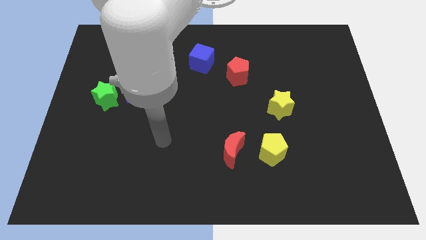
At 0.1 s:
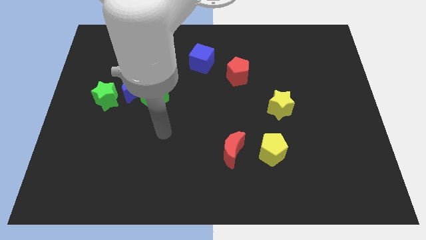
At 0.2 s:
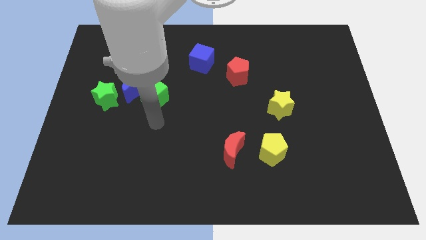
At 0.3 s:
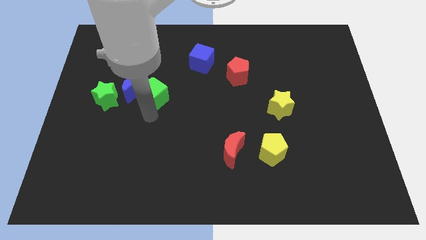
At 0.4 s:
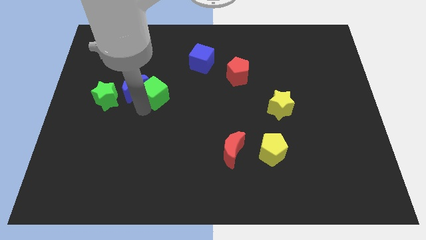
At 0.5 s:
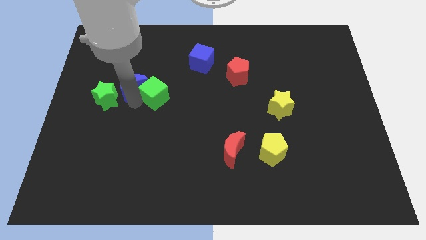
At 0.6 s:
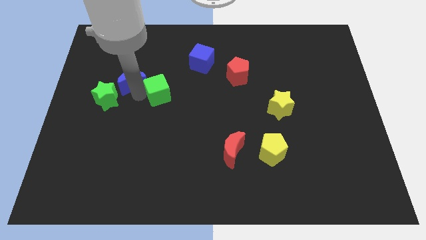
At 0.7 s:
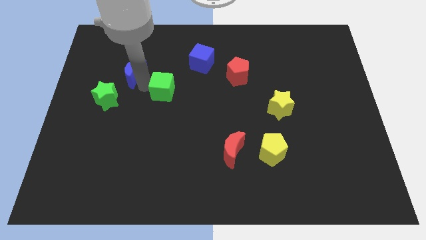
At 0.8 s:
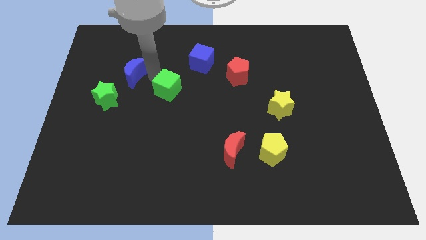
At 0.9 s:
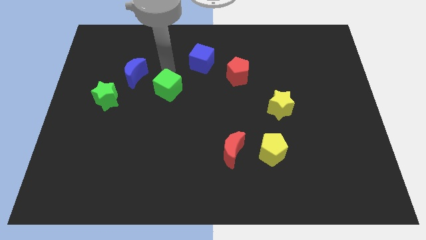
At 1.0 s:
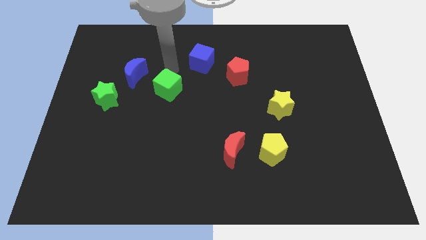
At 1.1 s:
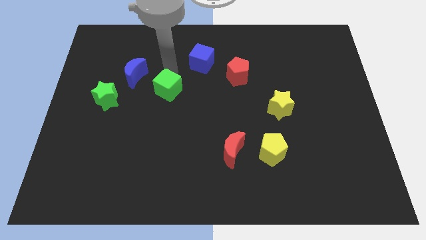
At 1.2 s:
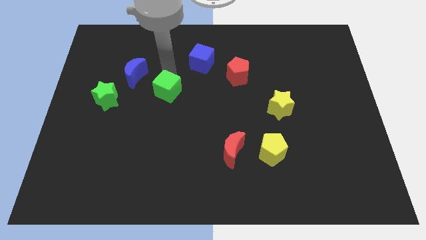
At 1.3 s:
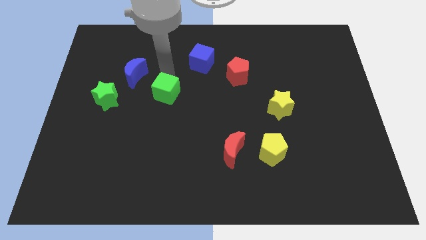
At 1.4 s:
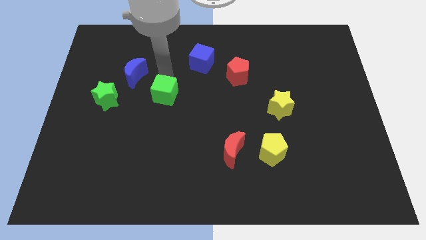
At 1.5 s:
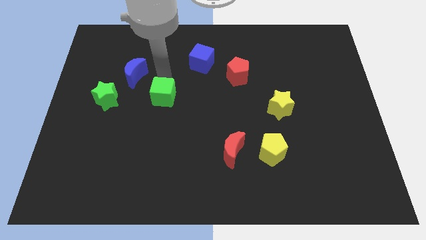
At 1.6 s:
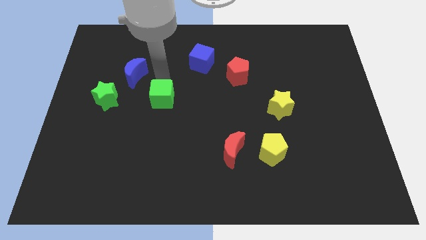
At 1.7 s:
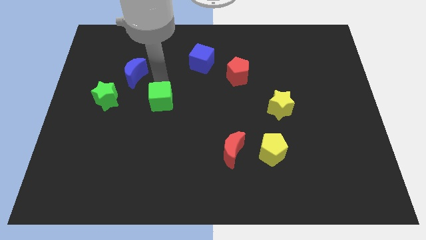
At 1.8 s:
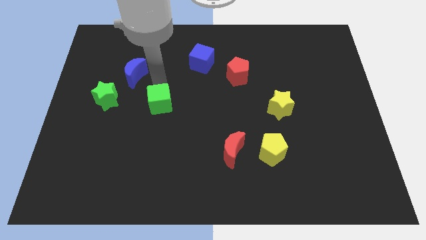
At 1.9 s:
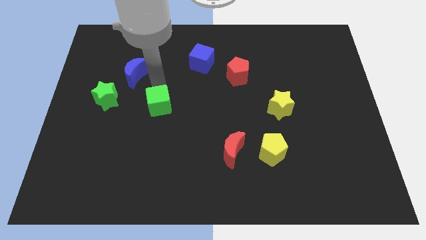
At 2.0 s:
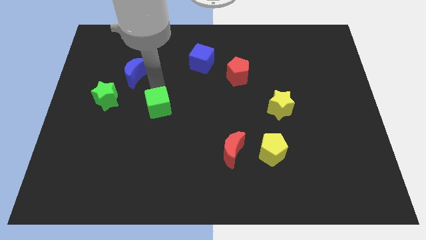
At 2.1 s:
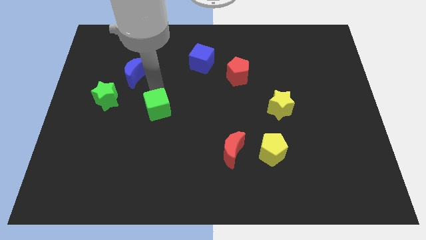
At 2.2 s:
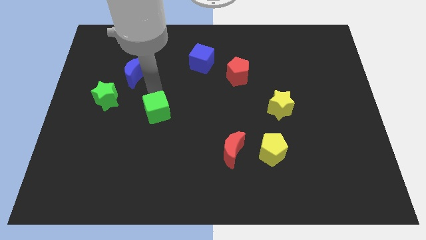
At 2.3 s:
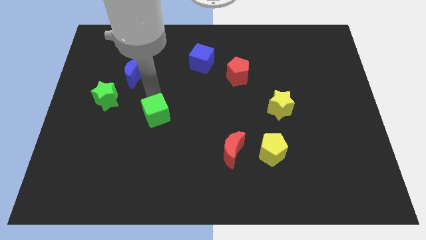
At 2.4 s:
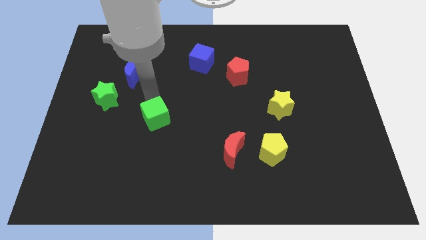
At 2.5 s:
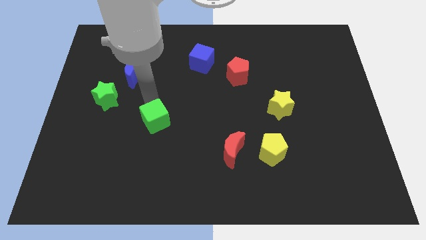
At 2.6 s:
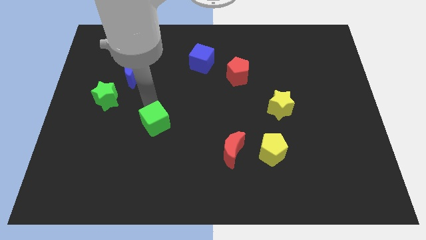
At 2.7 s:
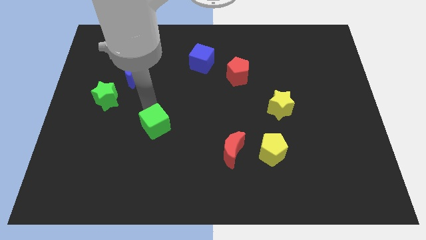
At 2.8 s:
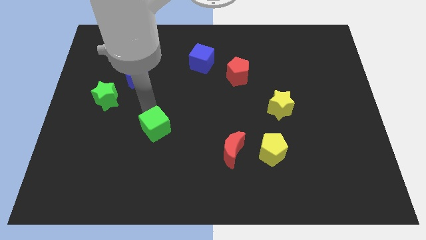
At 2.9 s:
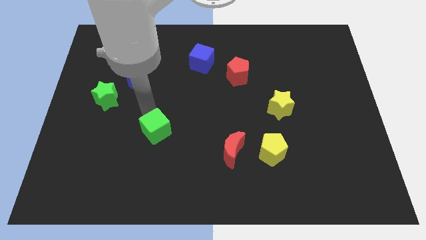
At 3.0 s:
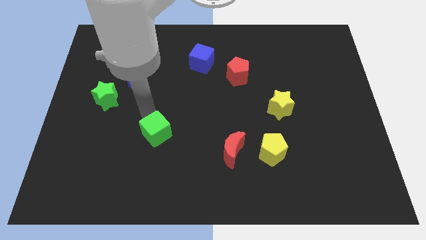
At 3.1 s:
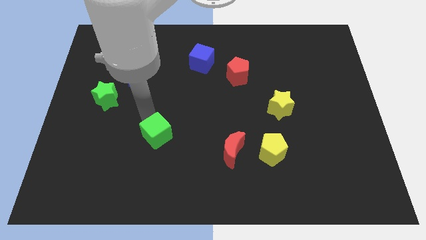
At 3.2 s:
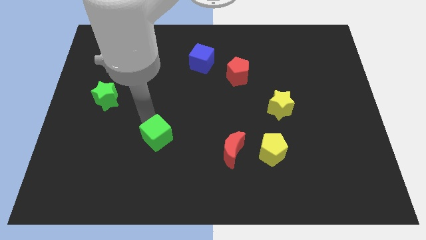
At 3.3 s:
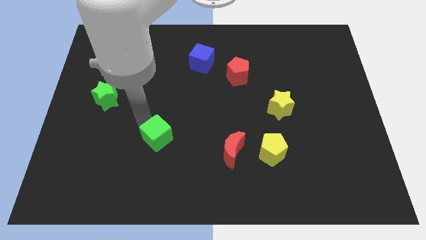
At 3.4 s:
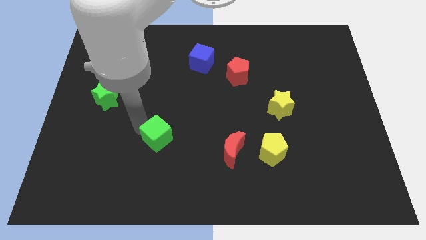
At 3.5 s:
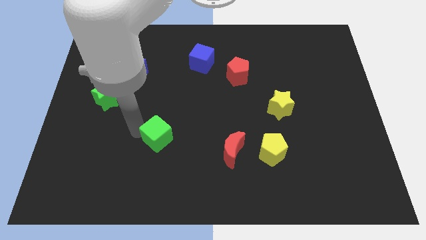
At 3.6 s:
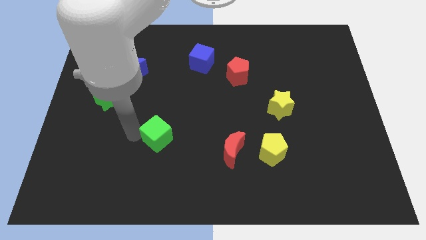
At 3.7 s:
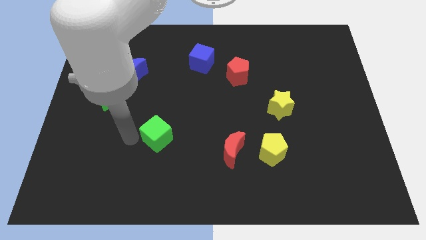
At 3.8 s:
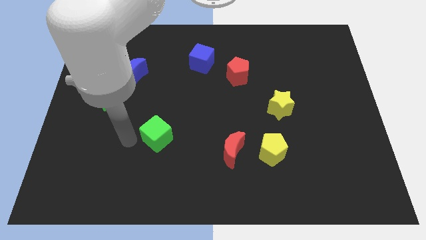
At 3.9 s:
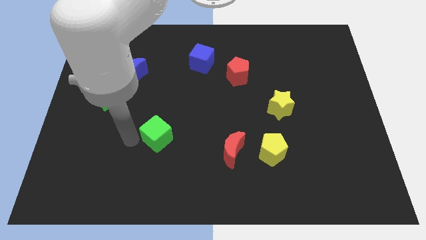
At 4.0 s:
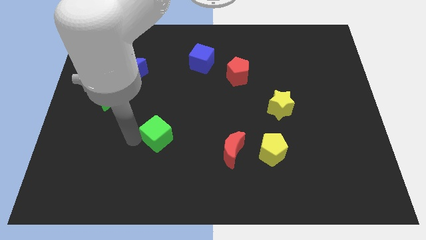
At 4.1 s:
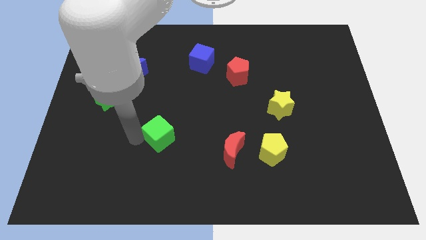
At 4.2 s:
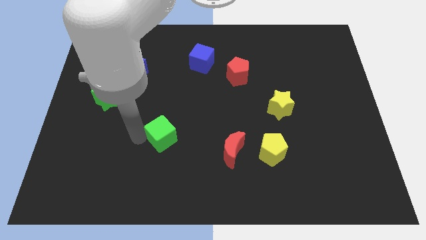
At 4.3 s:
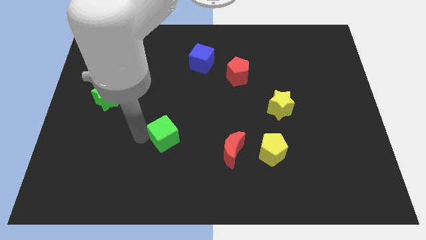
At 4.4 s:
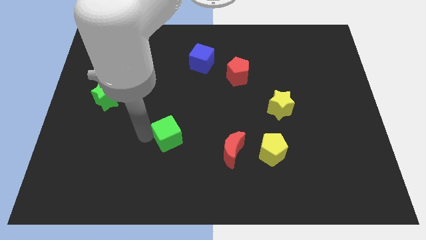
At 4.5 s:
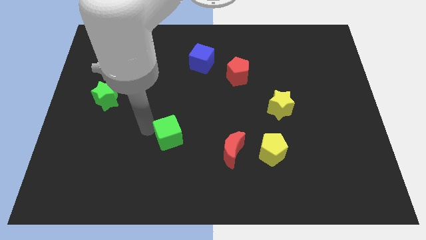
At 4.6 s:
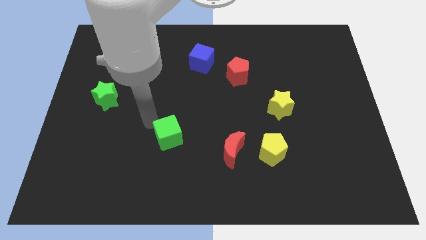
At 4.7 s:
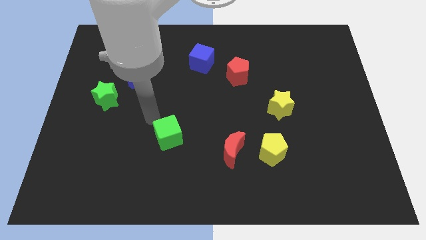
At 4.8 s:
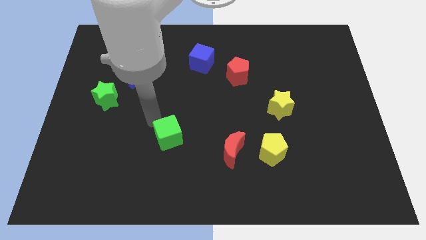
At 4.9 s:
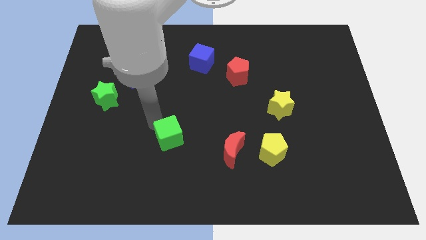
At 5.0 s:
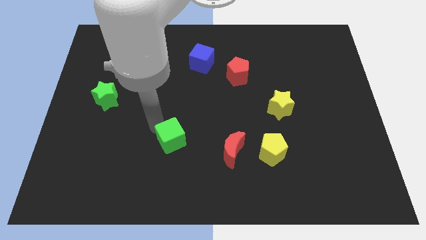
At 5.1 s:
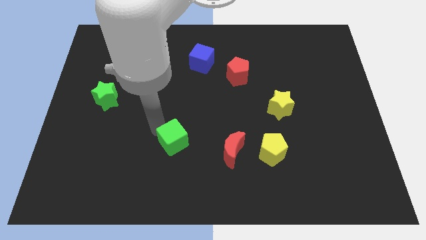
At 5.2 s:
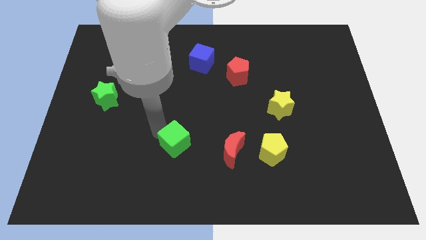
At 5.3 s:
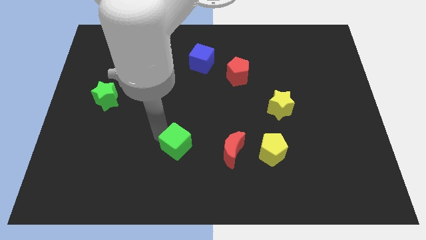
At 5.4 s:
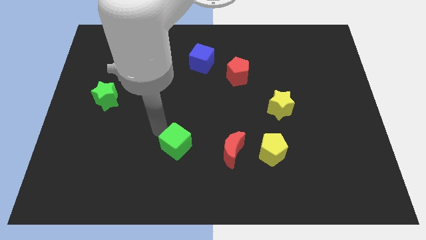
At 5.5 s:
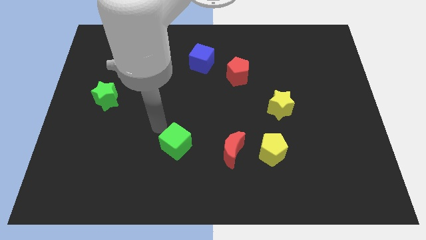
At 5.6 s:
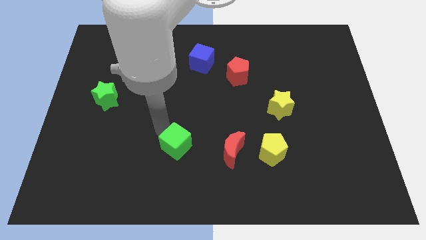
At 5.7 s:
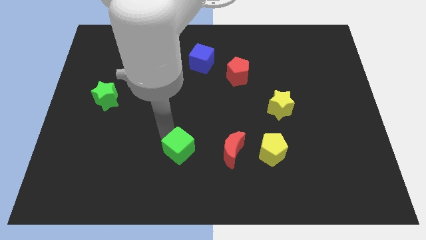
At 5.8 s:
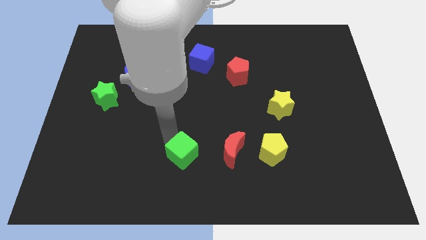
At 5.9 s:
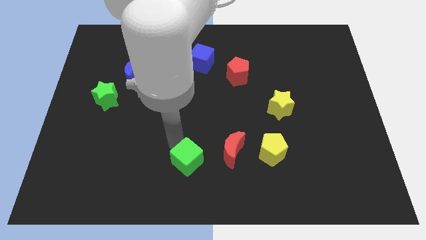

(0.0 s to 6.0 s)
move the green cube to the bottom

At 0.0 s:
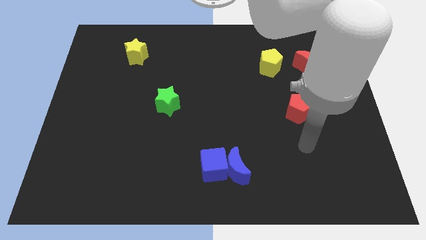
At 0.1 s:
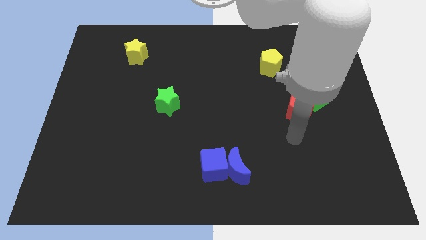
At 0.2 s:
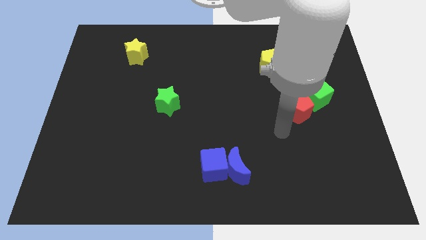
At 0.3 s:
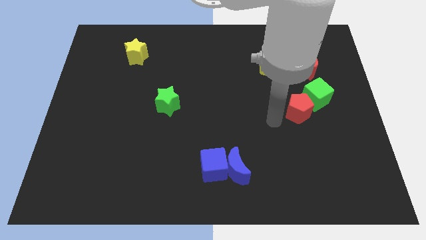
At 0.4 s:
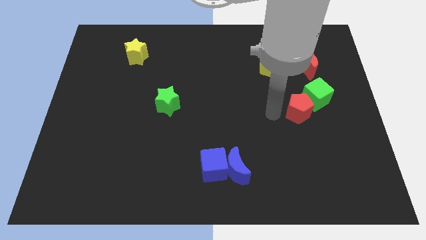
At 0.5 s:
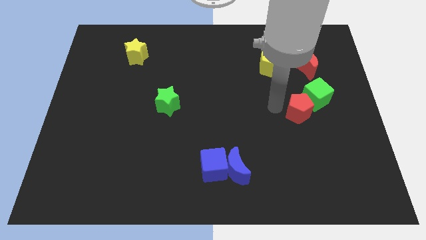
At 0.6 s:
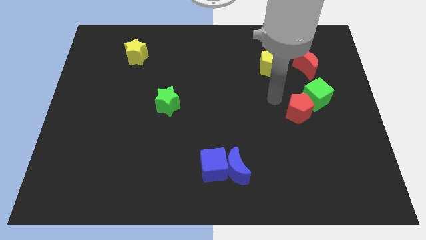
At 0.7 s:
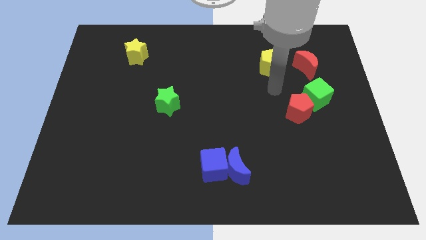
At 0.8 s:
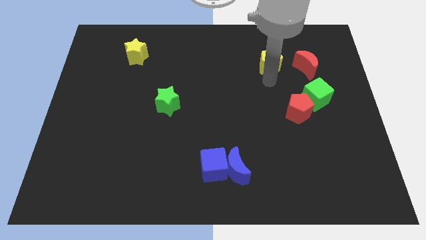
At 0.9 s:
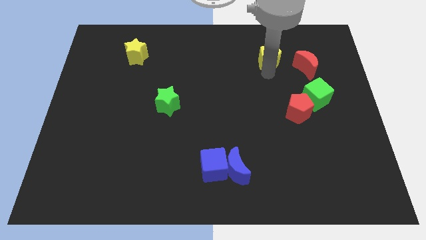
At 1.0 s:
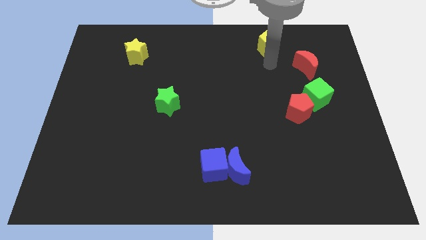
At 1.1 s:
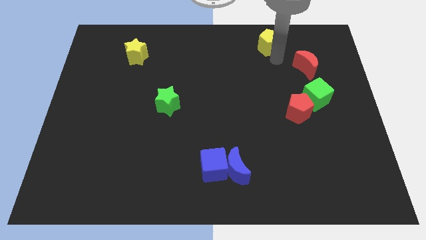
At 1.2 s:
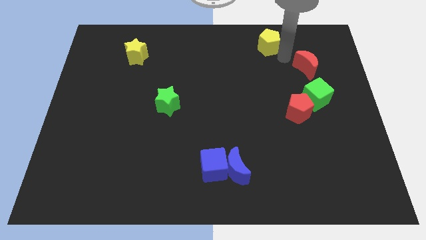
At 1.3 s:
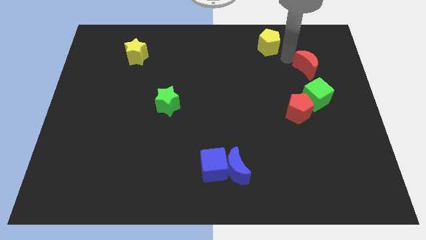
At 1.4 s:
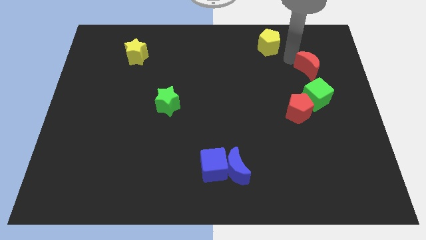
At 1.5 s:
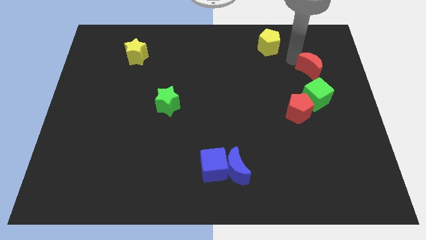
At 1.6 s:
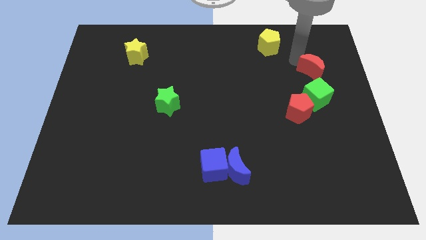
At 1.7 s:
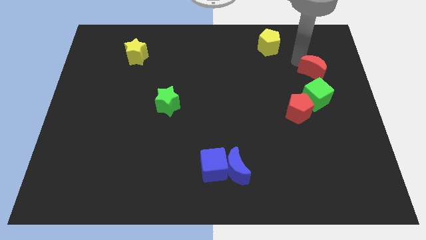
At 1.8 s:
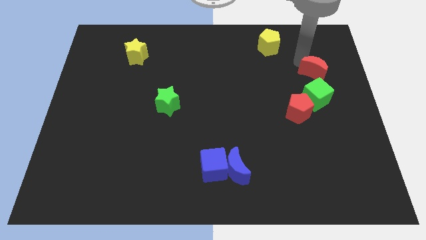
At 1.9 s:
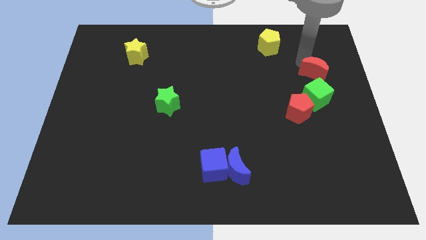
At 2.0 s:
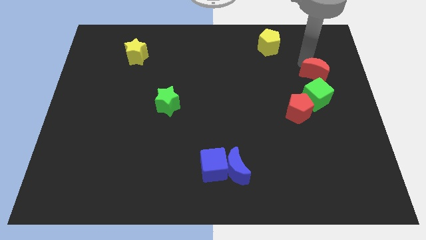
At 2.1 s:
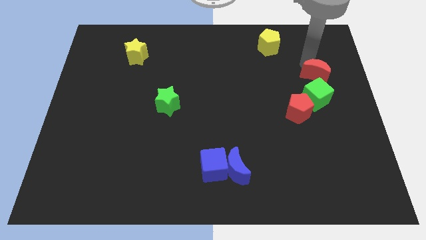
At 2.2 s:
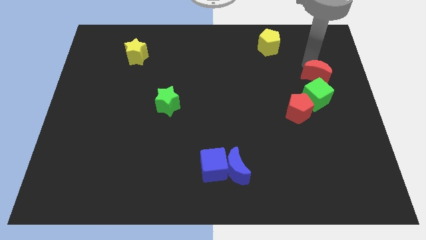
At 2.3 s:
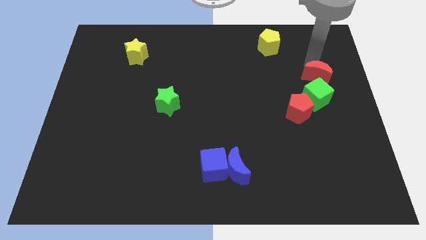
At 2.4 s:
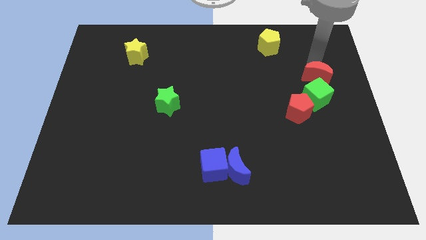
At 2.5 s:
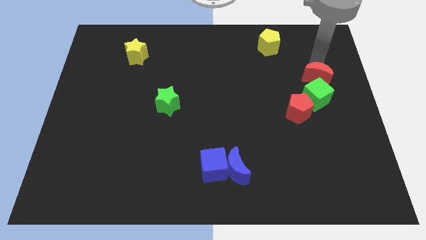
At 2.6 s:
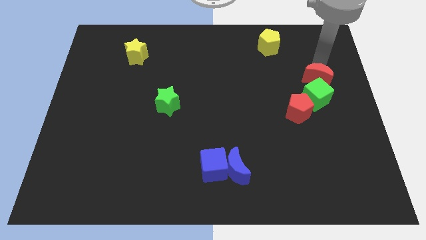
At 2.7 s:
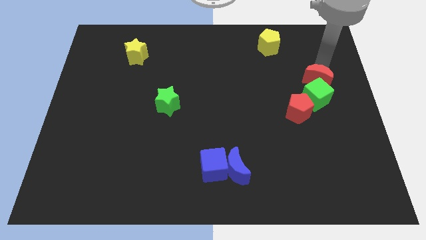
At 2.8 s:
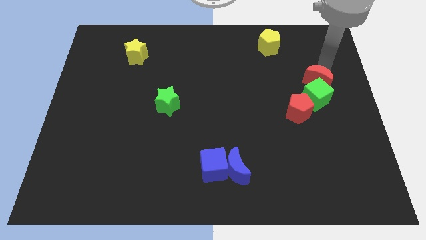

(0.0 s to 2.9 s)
put the red moon to the right side of the board
